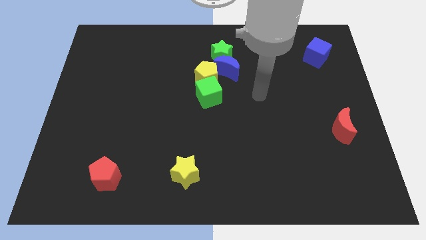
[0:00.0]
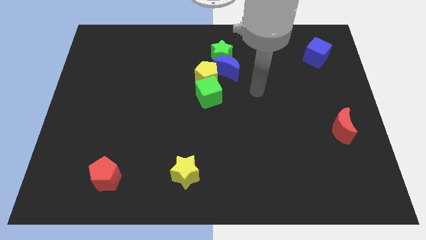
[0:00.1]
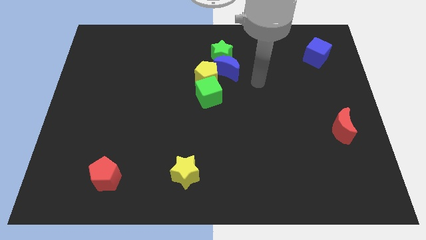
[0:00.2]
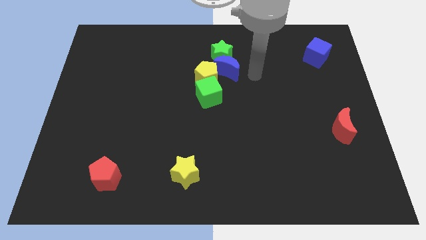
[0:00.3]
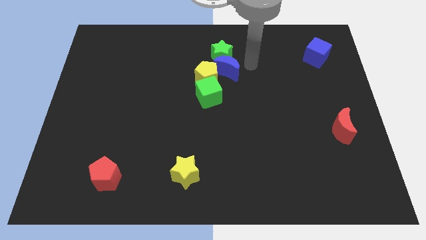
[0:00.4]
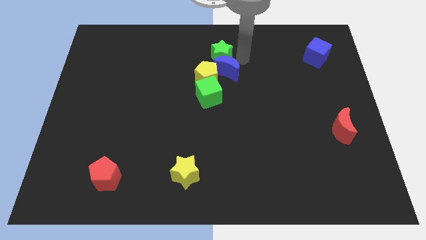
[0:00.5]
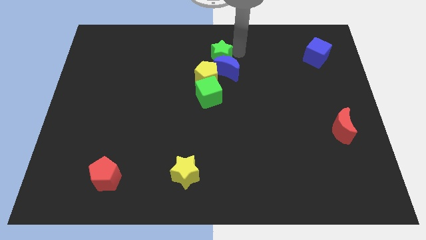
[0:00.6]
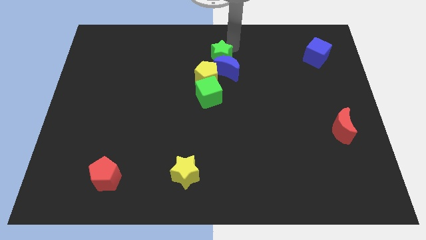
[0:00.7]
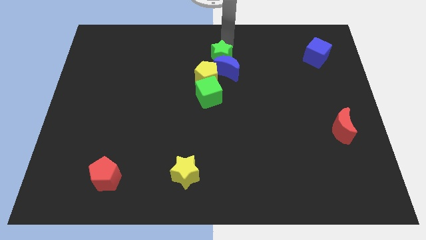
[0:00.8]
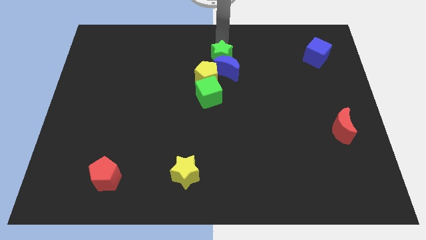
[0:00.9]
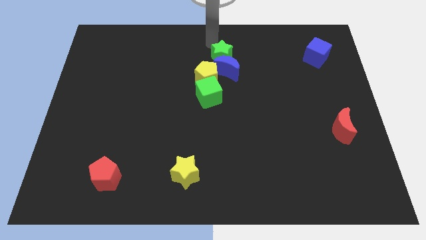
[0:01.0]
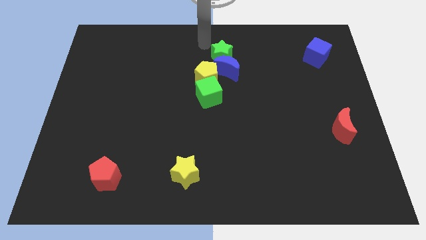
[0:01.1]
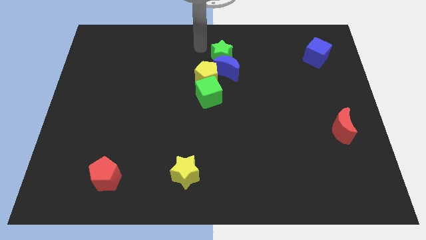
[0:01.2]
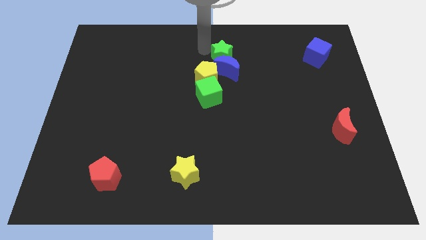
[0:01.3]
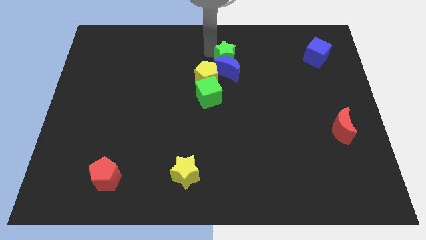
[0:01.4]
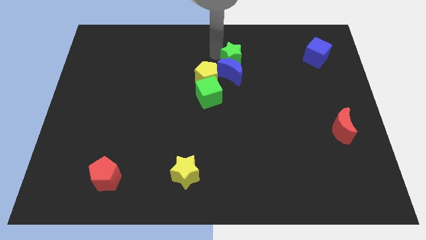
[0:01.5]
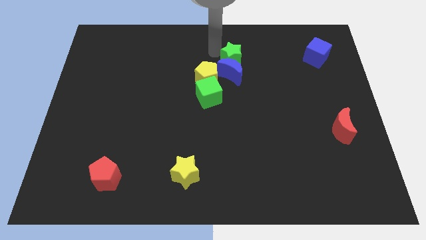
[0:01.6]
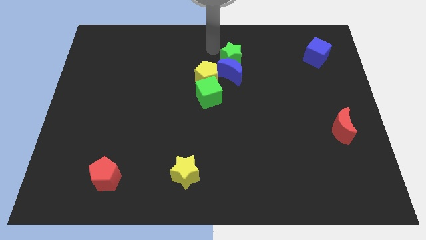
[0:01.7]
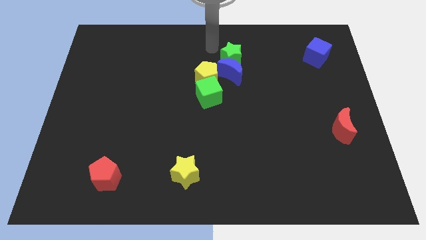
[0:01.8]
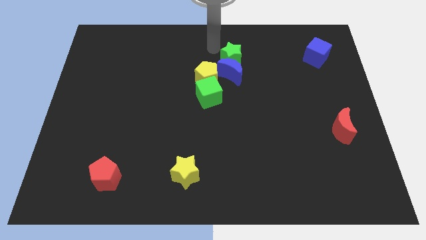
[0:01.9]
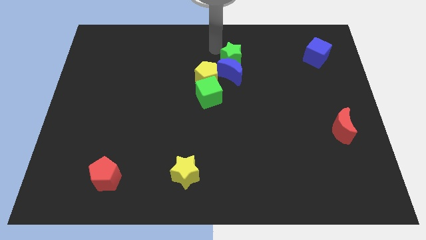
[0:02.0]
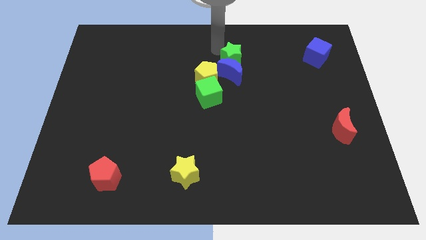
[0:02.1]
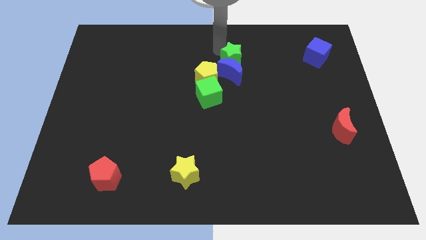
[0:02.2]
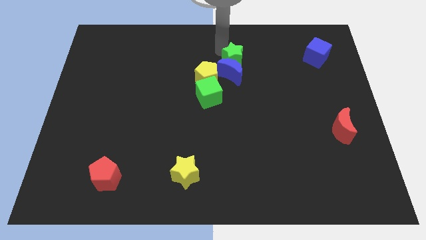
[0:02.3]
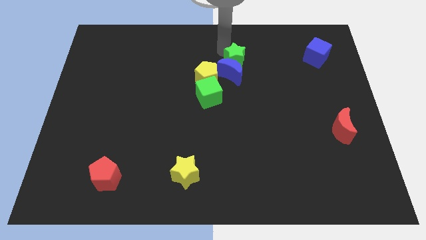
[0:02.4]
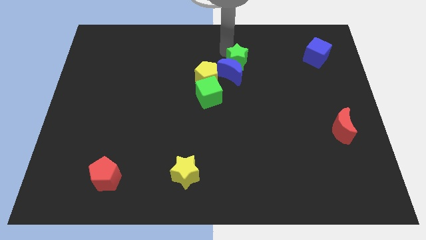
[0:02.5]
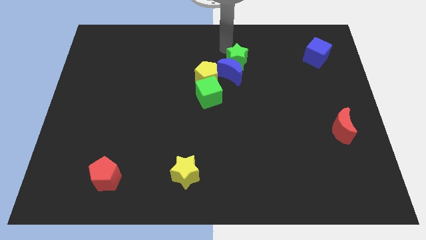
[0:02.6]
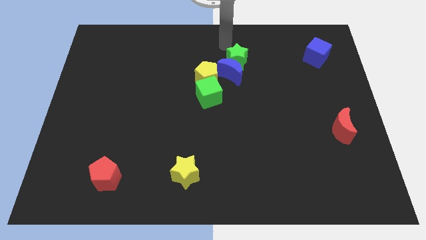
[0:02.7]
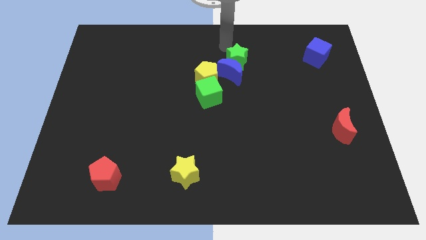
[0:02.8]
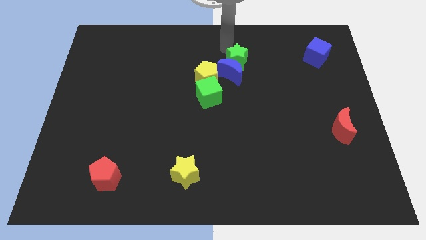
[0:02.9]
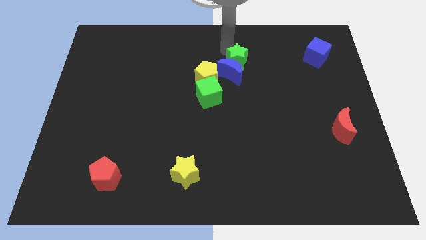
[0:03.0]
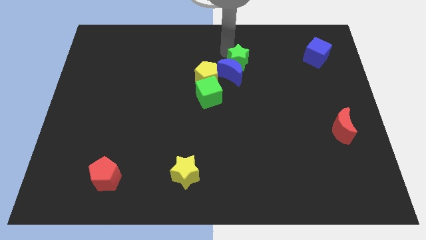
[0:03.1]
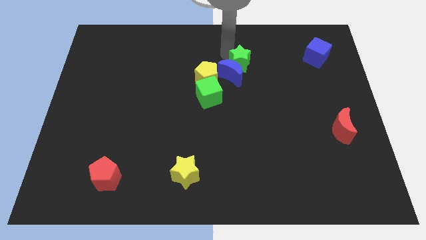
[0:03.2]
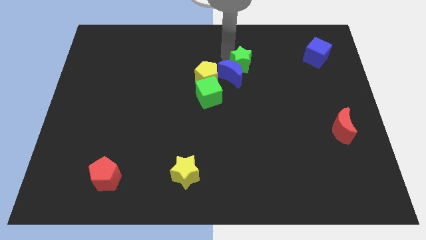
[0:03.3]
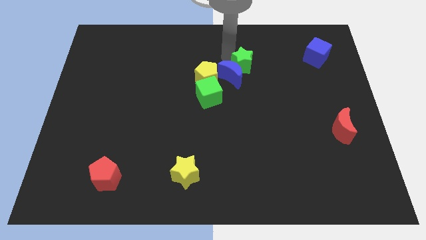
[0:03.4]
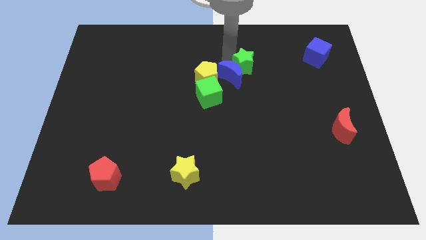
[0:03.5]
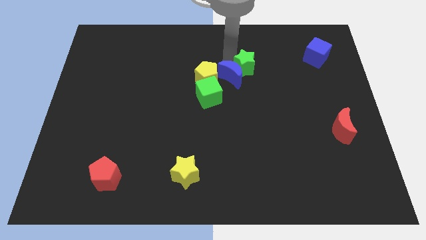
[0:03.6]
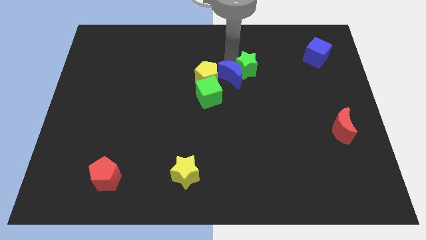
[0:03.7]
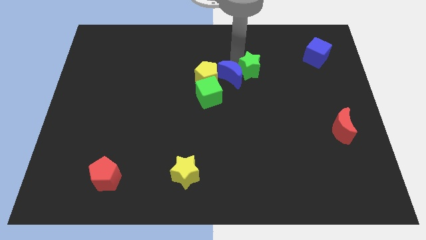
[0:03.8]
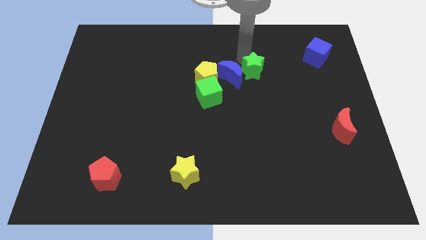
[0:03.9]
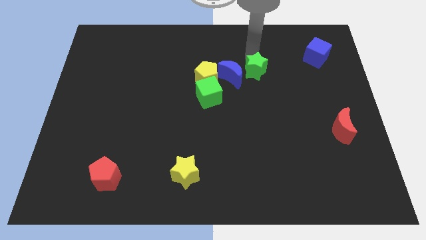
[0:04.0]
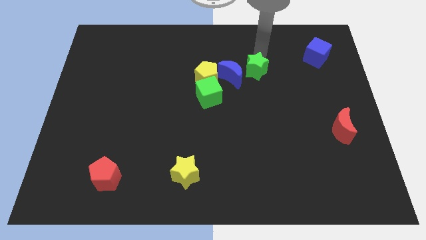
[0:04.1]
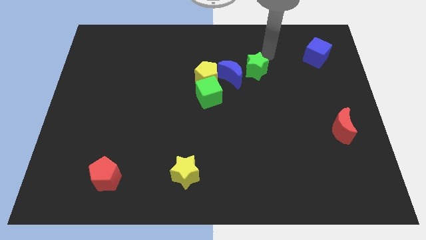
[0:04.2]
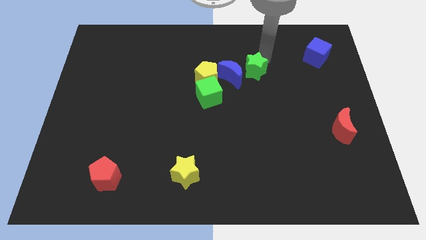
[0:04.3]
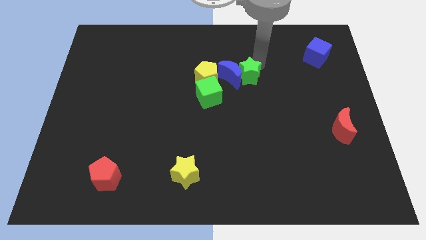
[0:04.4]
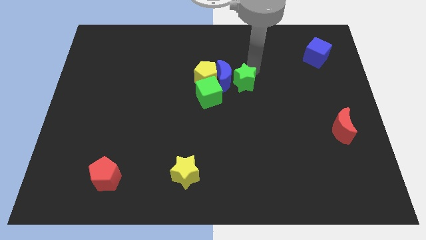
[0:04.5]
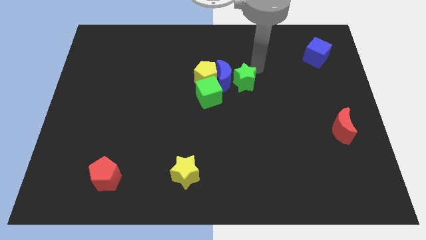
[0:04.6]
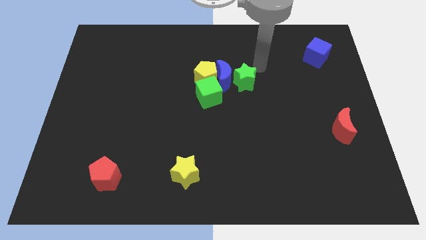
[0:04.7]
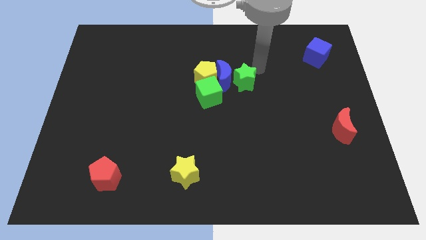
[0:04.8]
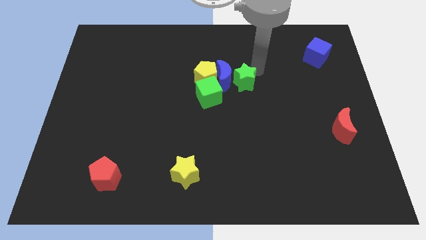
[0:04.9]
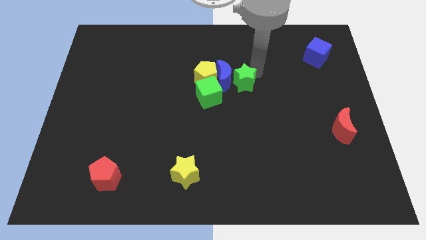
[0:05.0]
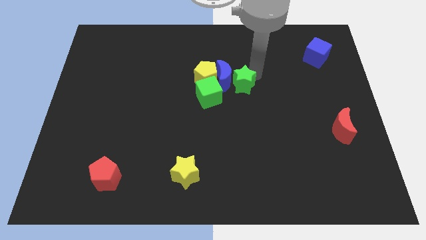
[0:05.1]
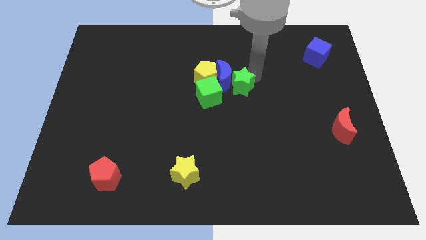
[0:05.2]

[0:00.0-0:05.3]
move the green star to the bottom right of the yellow pentagon
